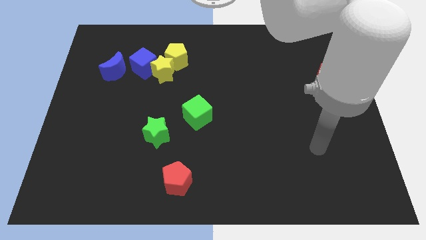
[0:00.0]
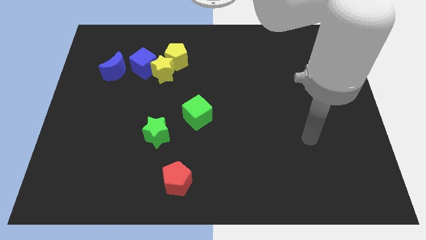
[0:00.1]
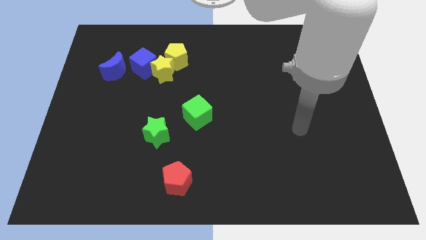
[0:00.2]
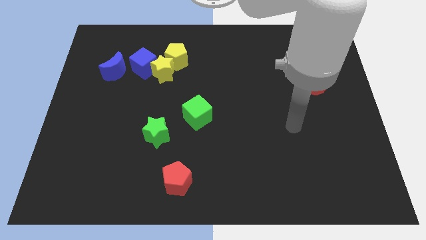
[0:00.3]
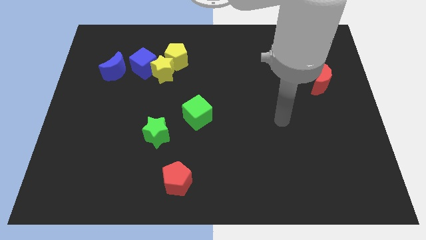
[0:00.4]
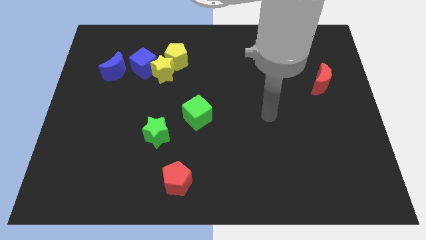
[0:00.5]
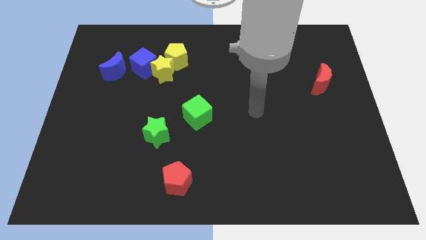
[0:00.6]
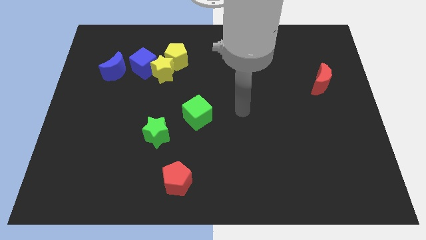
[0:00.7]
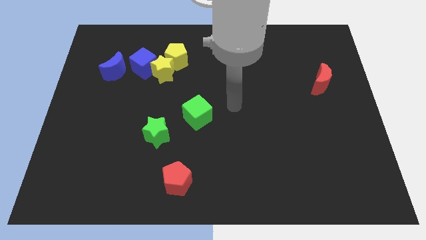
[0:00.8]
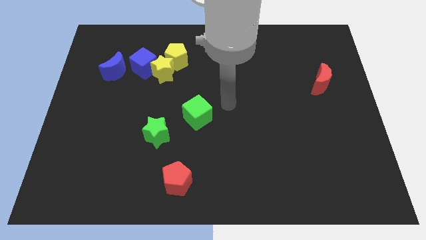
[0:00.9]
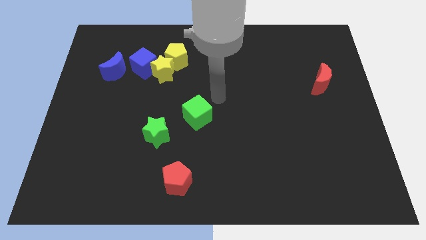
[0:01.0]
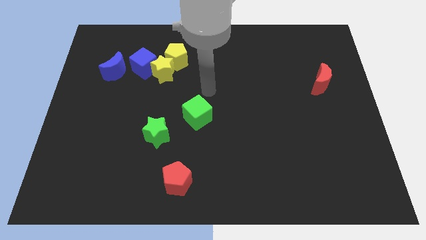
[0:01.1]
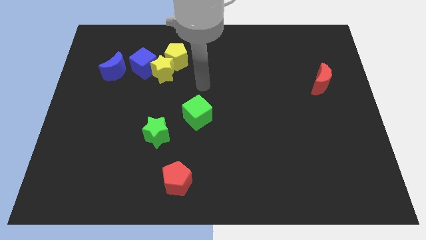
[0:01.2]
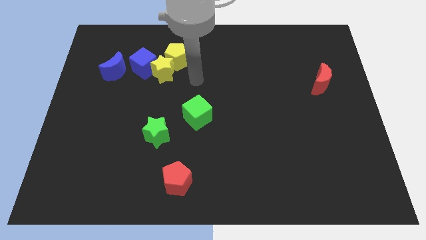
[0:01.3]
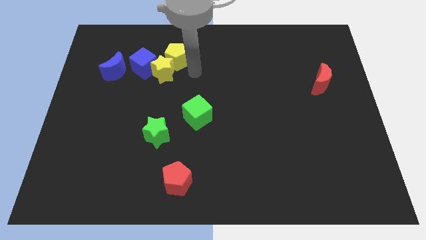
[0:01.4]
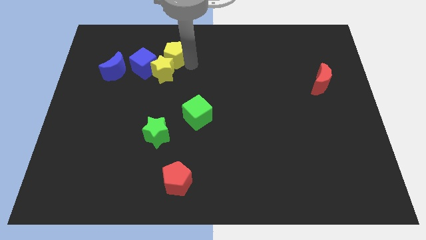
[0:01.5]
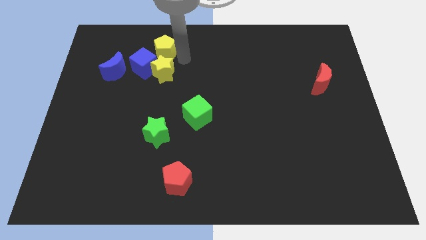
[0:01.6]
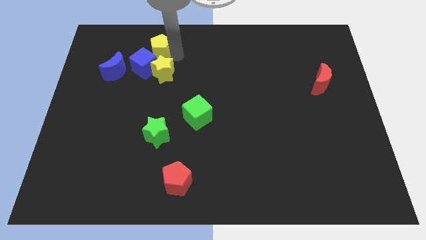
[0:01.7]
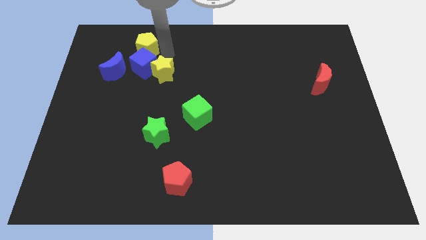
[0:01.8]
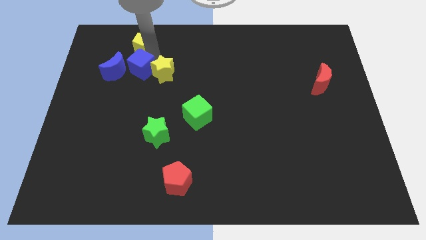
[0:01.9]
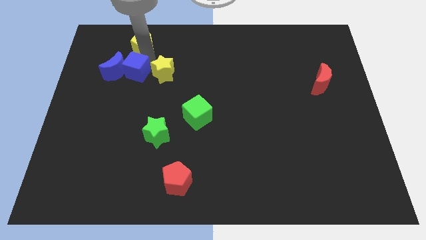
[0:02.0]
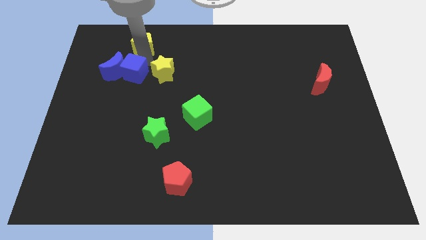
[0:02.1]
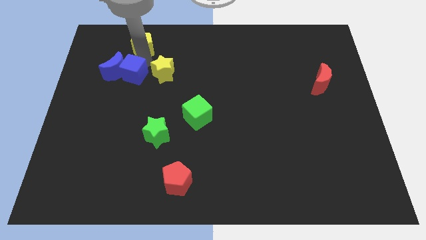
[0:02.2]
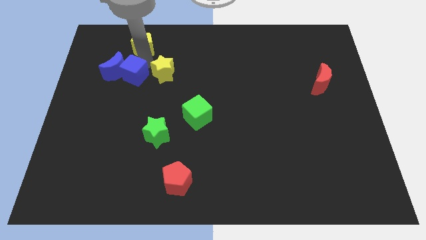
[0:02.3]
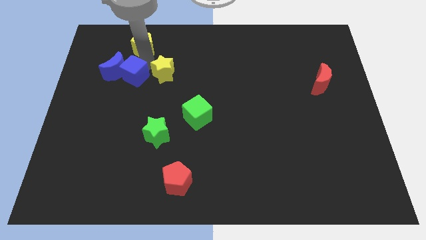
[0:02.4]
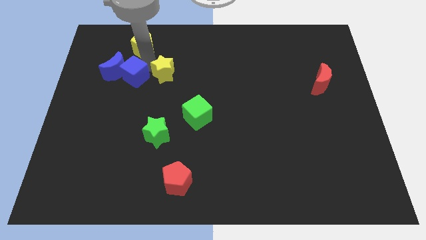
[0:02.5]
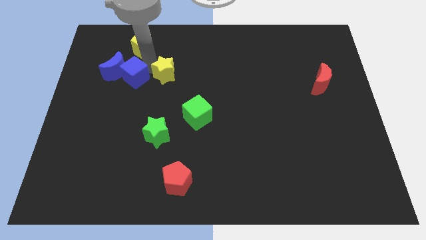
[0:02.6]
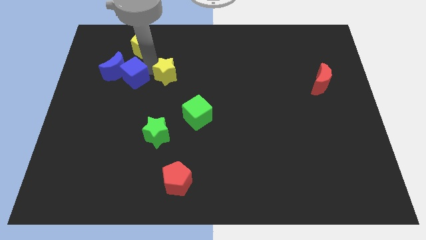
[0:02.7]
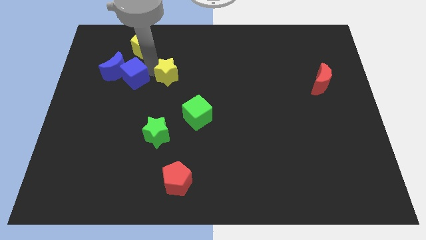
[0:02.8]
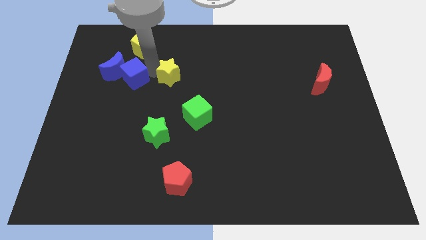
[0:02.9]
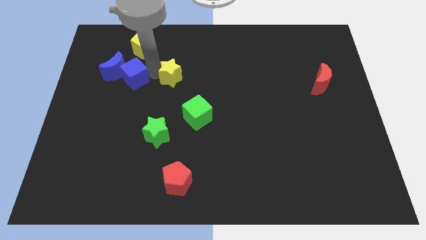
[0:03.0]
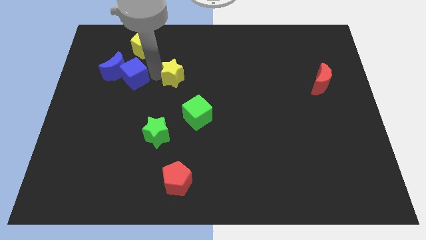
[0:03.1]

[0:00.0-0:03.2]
separate the yellow star from the blue cube and yellow pentagon

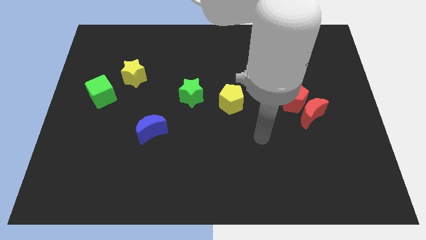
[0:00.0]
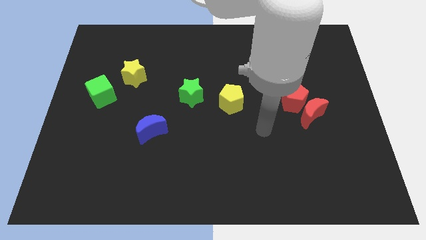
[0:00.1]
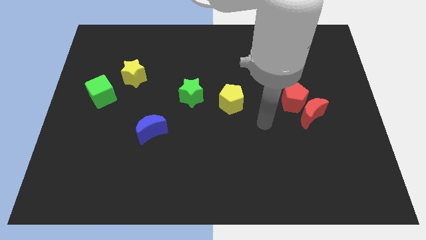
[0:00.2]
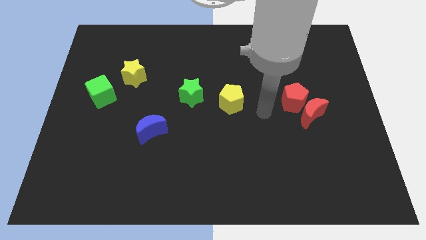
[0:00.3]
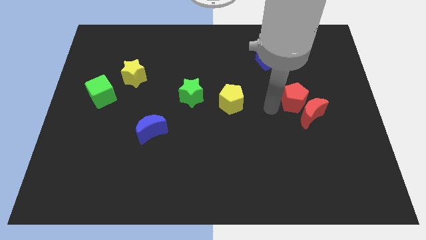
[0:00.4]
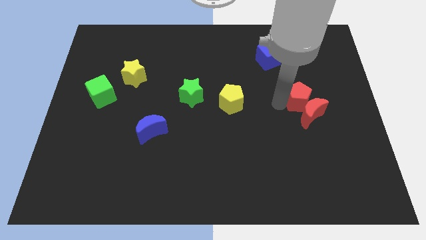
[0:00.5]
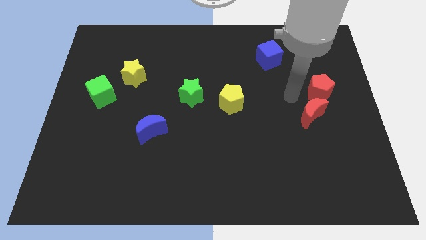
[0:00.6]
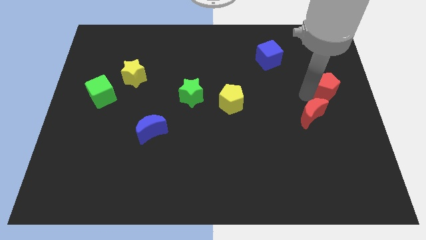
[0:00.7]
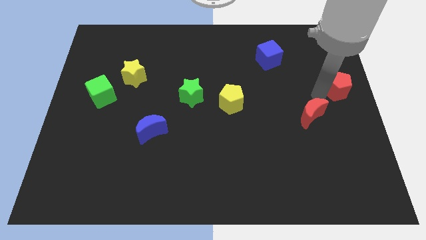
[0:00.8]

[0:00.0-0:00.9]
separate the red moon from the red pentagon

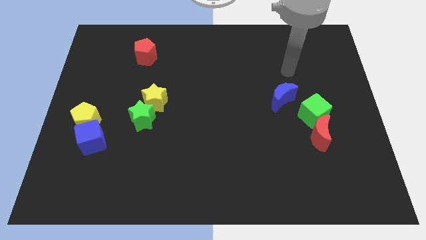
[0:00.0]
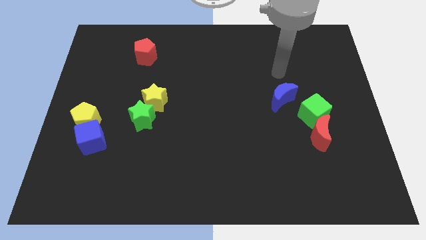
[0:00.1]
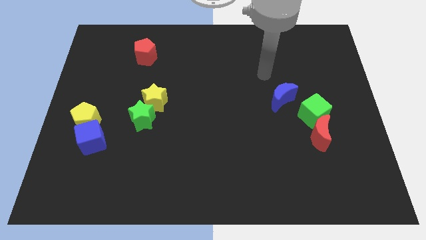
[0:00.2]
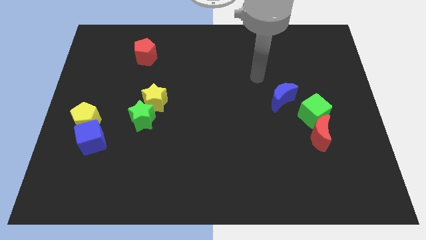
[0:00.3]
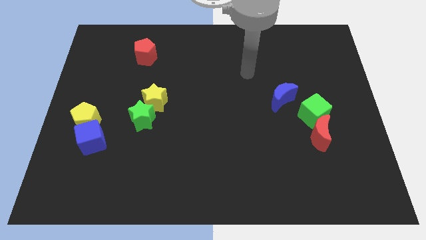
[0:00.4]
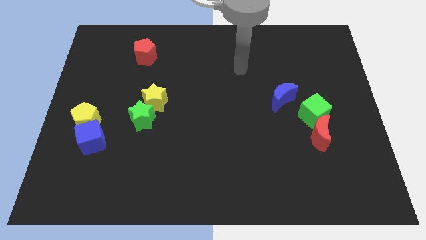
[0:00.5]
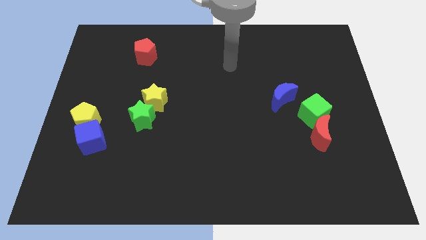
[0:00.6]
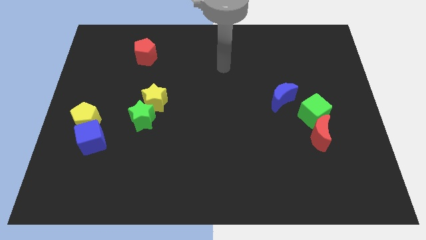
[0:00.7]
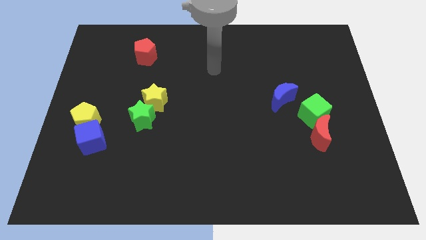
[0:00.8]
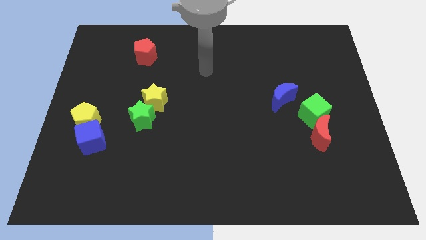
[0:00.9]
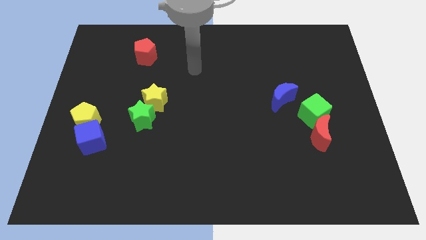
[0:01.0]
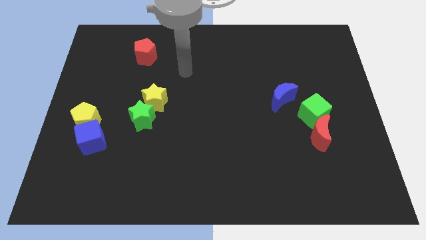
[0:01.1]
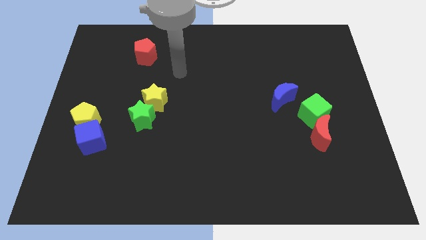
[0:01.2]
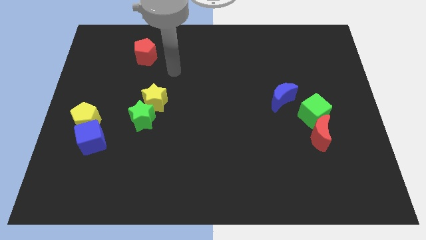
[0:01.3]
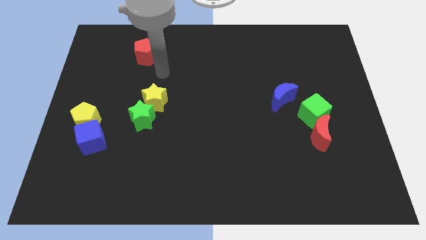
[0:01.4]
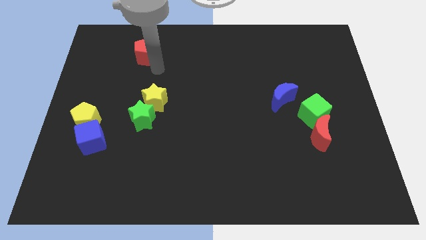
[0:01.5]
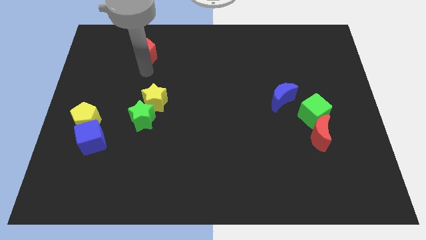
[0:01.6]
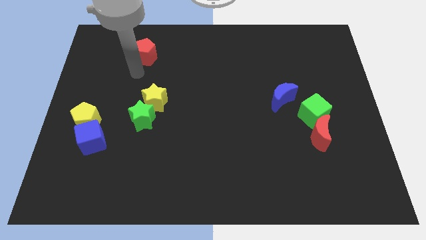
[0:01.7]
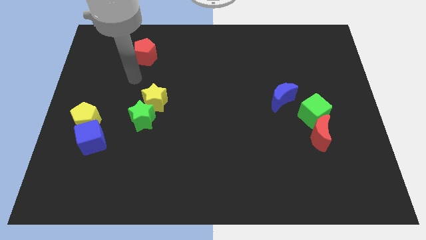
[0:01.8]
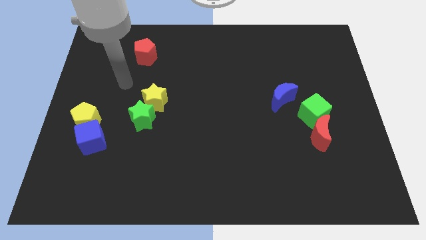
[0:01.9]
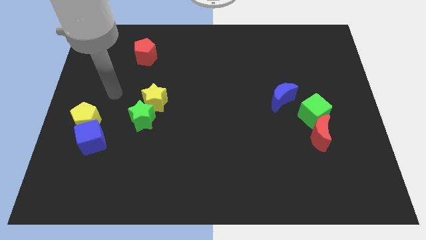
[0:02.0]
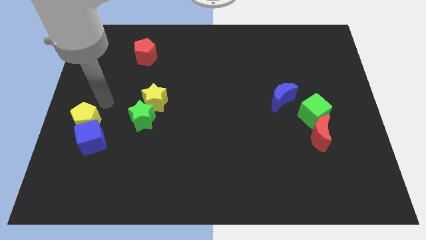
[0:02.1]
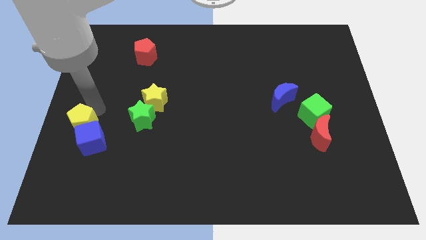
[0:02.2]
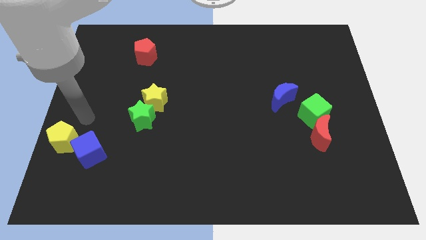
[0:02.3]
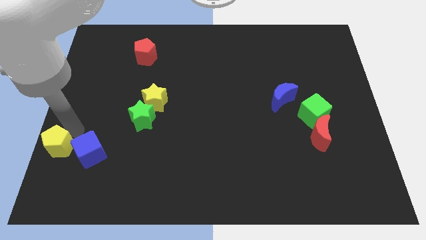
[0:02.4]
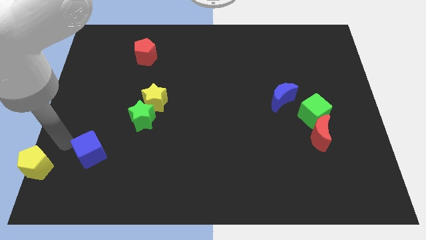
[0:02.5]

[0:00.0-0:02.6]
separate the blue cube from the yellow pentagon

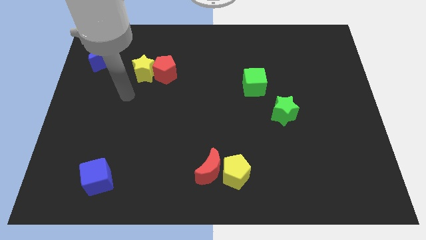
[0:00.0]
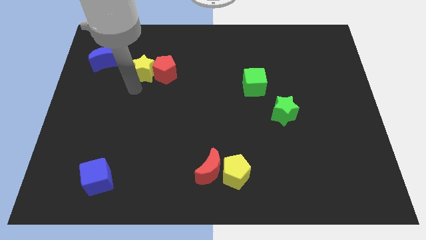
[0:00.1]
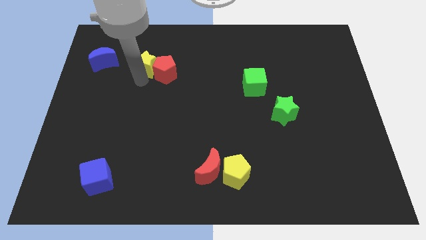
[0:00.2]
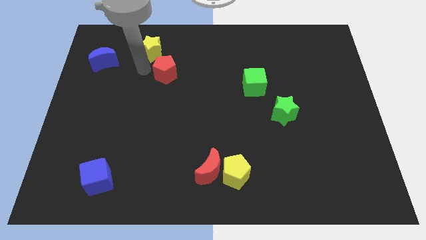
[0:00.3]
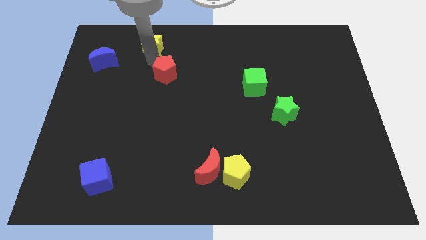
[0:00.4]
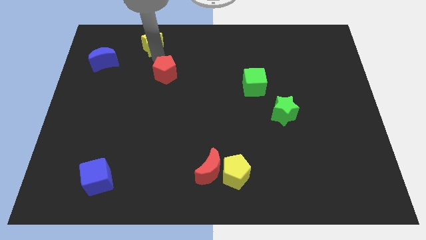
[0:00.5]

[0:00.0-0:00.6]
pull the red pentagon apart from the yellow star

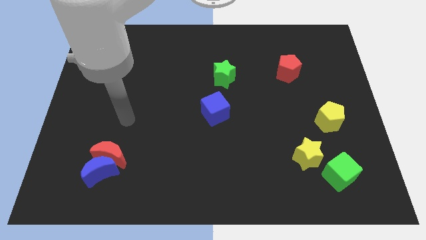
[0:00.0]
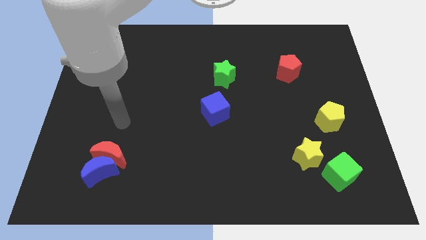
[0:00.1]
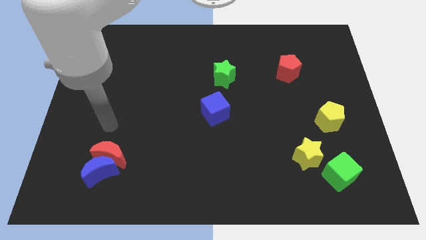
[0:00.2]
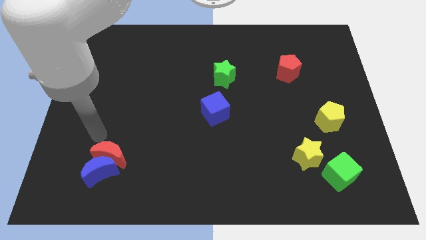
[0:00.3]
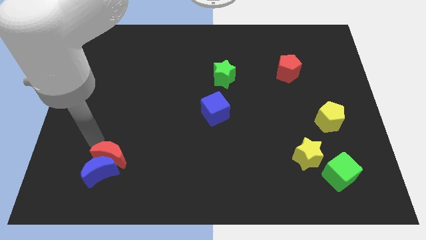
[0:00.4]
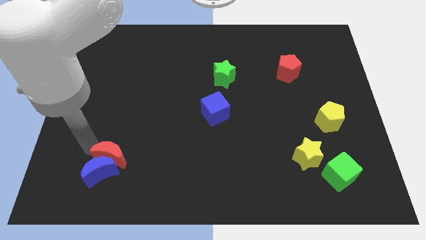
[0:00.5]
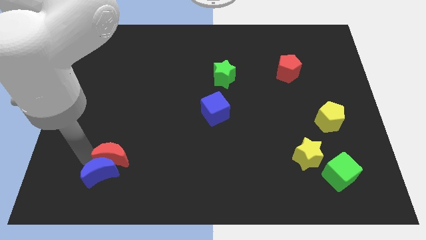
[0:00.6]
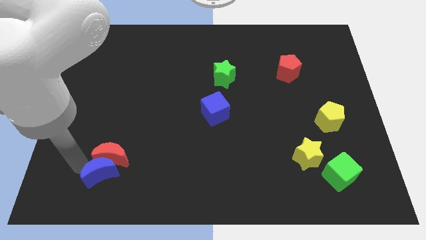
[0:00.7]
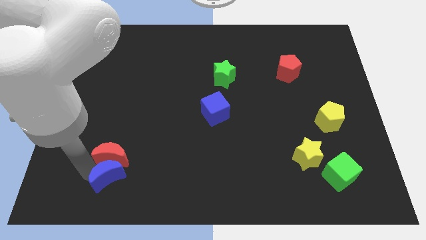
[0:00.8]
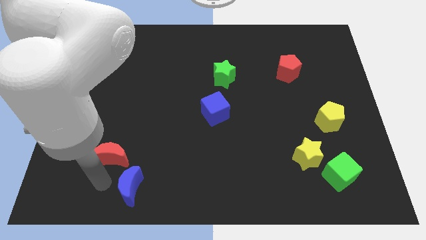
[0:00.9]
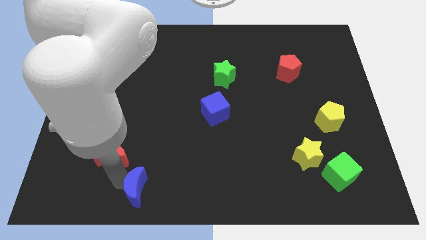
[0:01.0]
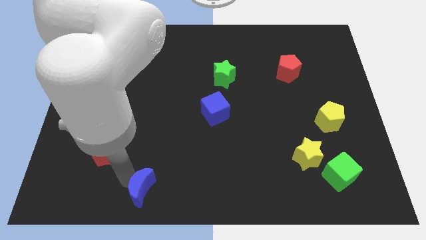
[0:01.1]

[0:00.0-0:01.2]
separate the red moon from the blue moon

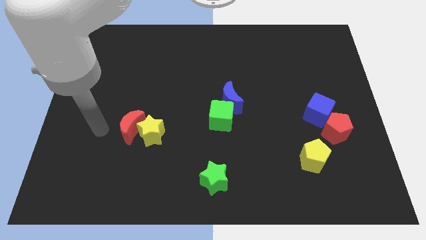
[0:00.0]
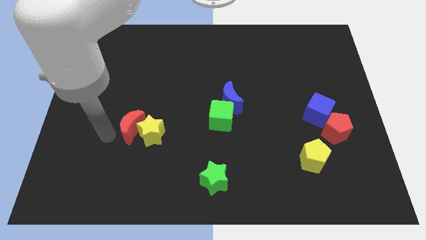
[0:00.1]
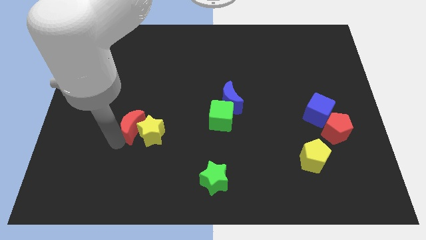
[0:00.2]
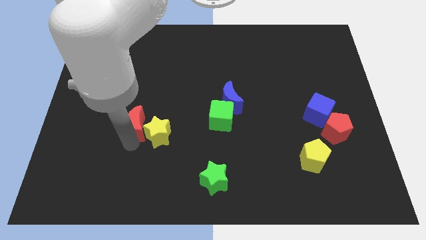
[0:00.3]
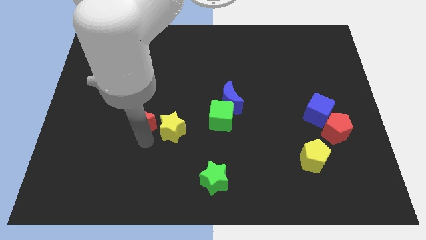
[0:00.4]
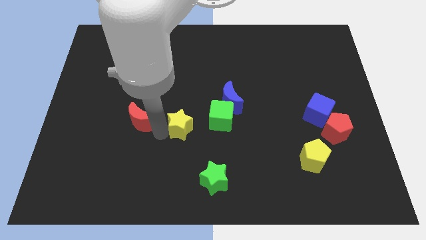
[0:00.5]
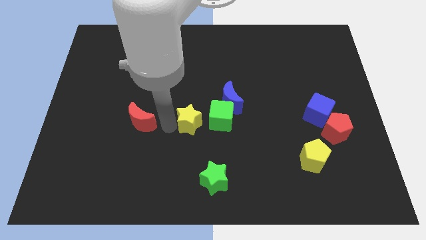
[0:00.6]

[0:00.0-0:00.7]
move the red moon away from the yellow star

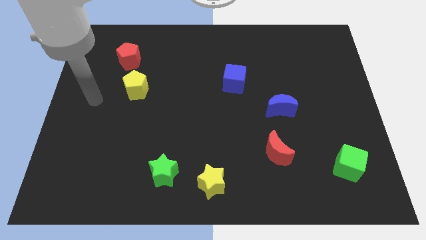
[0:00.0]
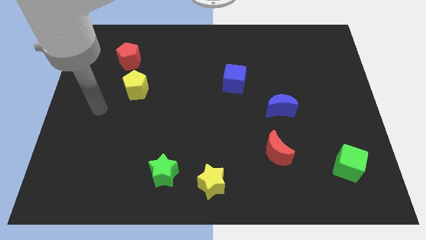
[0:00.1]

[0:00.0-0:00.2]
separate the green star from the yellow star
